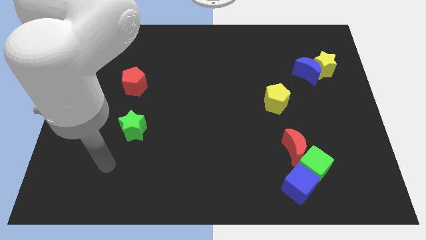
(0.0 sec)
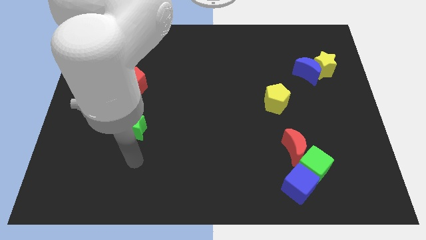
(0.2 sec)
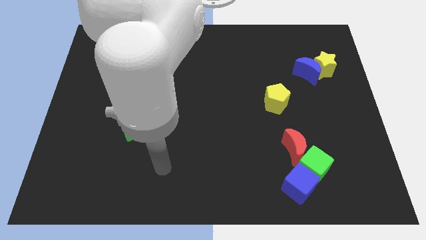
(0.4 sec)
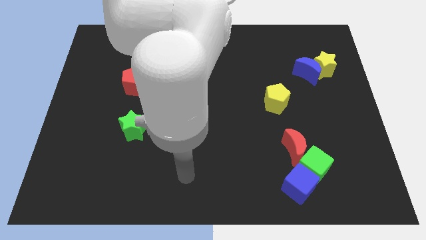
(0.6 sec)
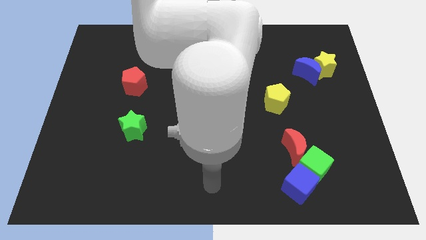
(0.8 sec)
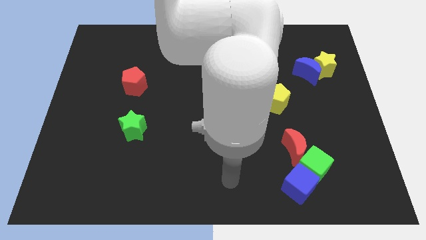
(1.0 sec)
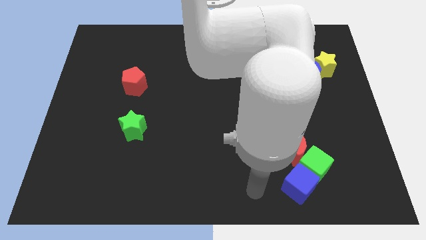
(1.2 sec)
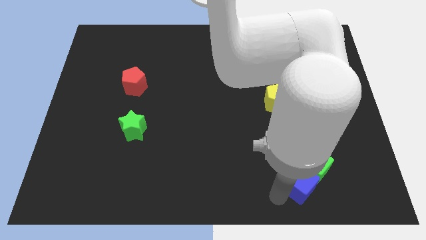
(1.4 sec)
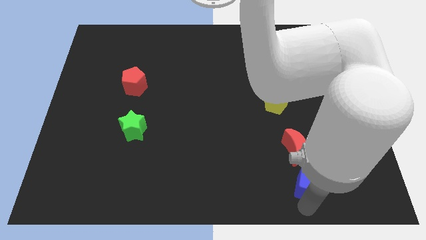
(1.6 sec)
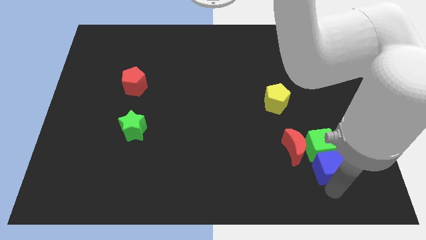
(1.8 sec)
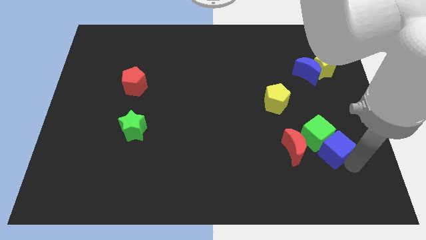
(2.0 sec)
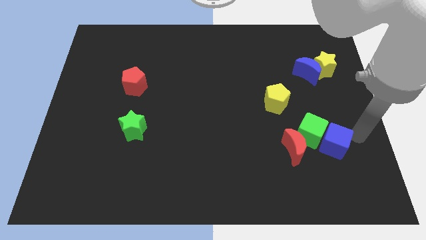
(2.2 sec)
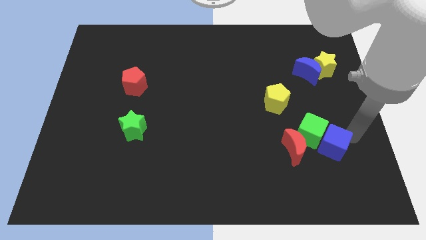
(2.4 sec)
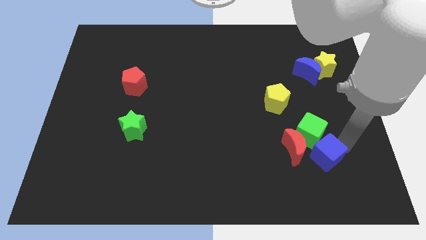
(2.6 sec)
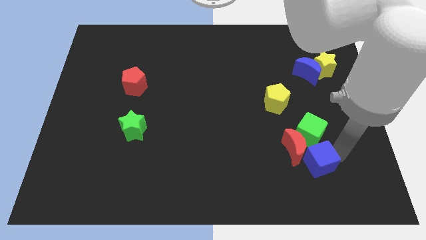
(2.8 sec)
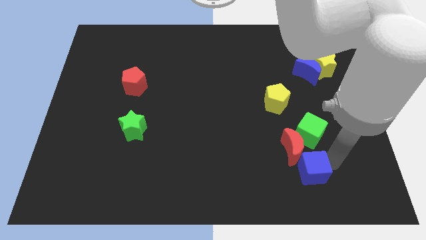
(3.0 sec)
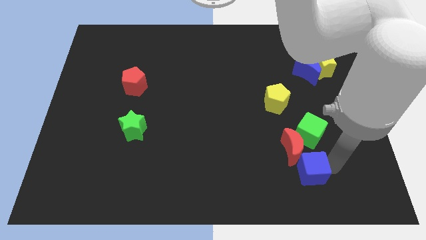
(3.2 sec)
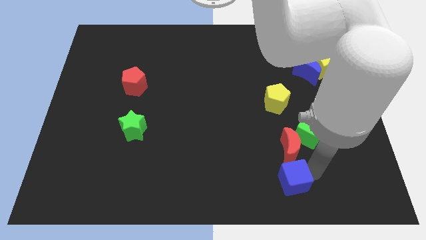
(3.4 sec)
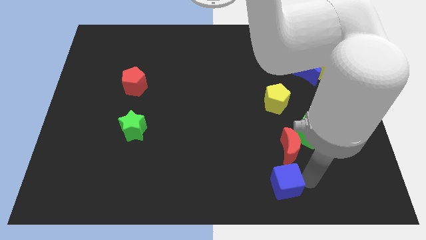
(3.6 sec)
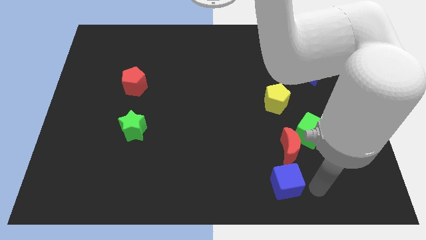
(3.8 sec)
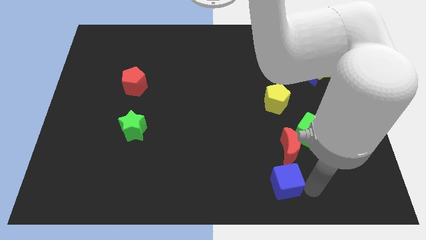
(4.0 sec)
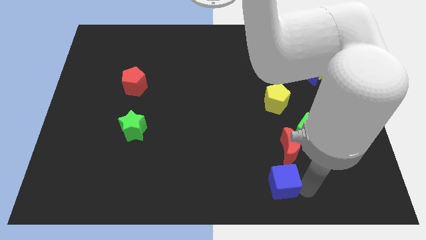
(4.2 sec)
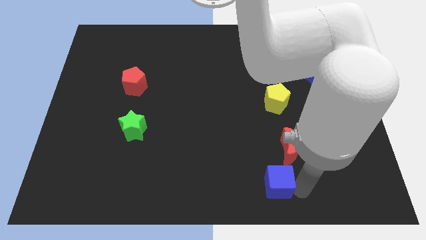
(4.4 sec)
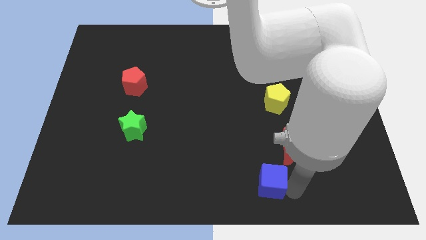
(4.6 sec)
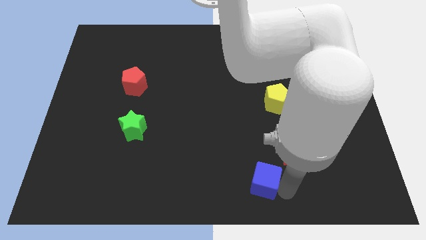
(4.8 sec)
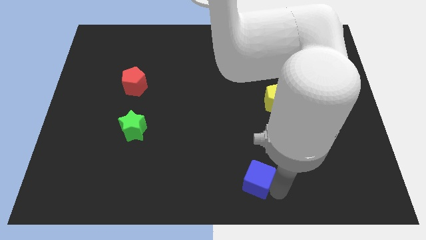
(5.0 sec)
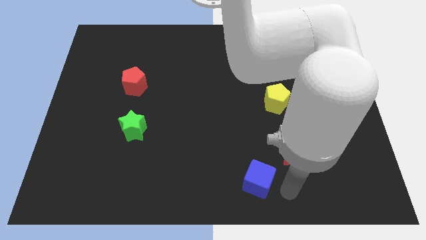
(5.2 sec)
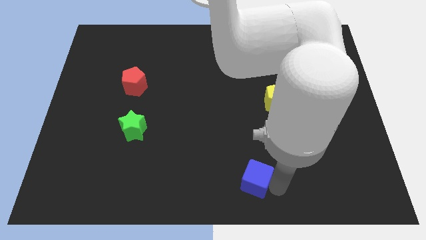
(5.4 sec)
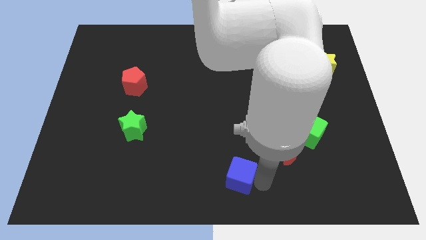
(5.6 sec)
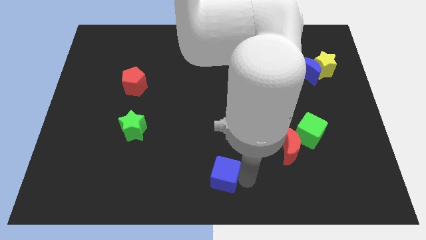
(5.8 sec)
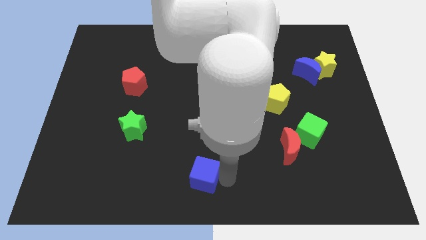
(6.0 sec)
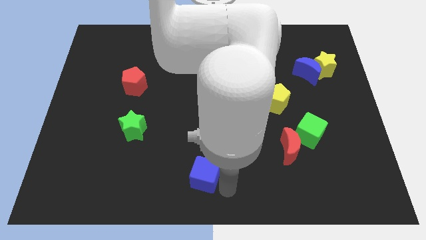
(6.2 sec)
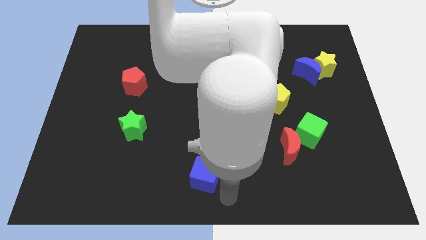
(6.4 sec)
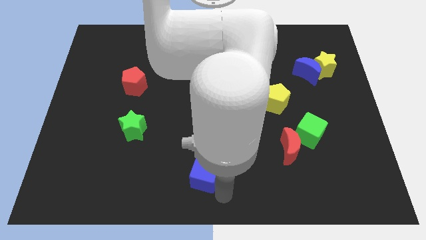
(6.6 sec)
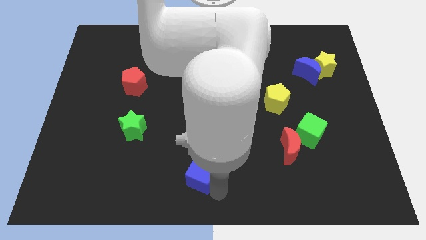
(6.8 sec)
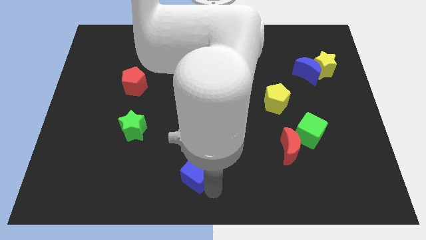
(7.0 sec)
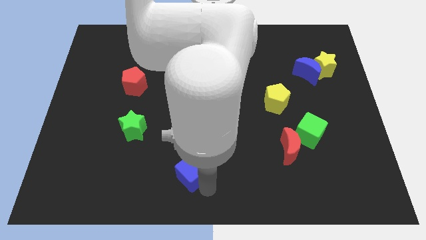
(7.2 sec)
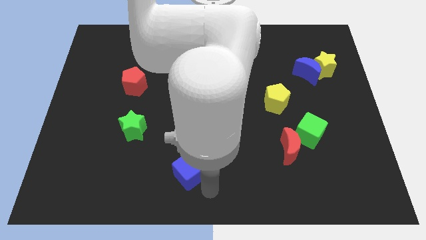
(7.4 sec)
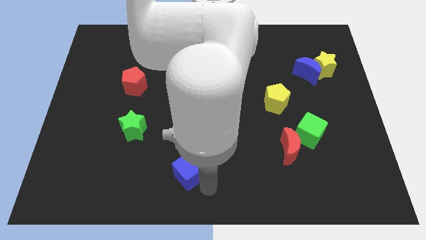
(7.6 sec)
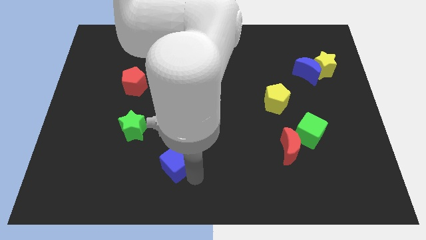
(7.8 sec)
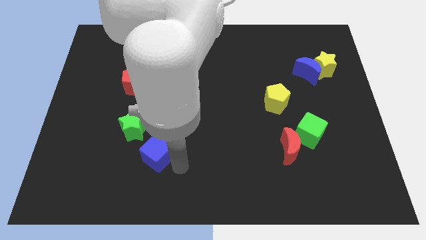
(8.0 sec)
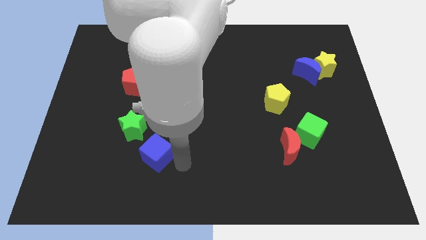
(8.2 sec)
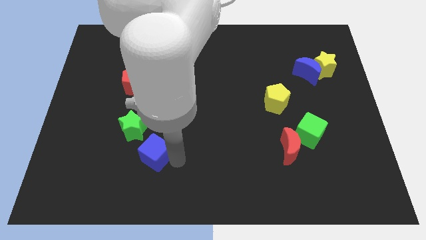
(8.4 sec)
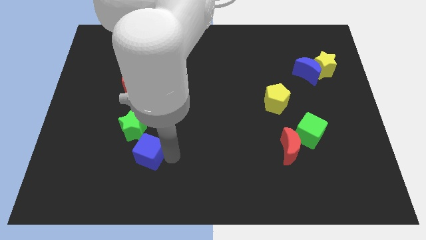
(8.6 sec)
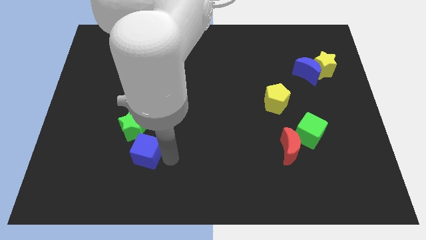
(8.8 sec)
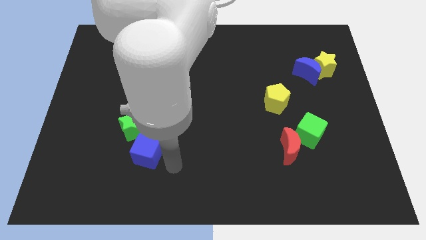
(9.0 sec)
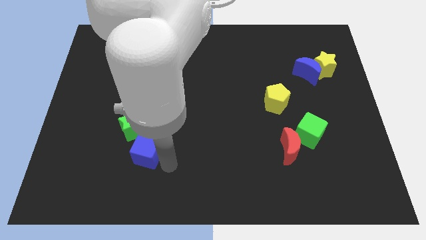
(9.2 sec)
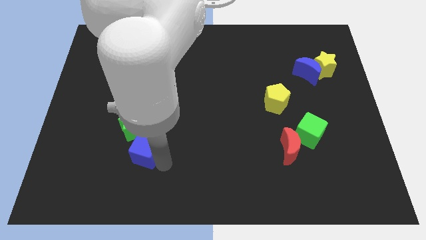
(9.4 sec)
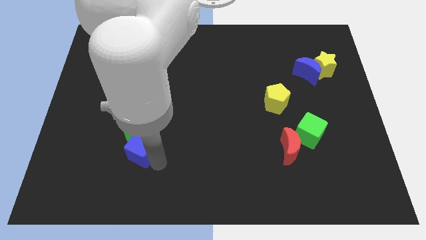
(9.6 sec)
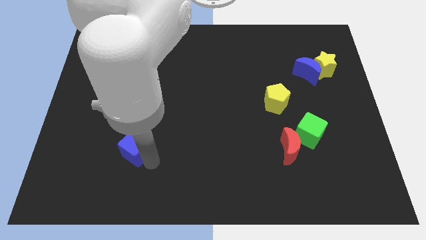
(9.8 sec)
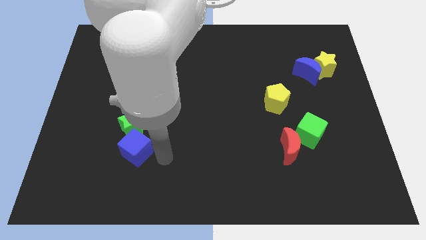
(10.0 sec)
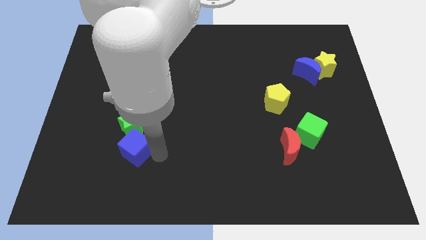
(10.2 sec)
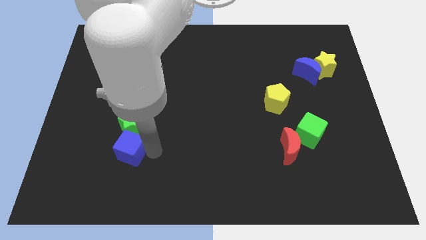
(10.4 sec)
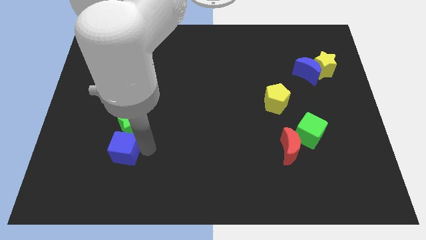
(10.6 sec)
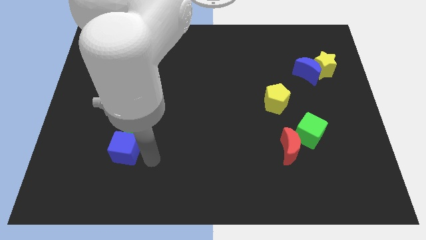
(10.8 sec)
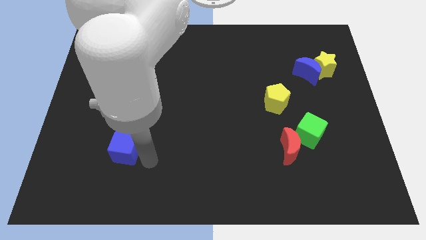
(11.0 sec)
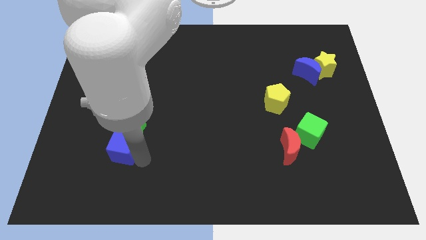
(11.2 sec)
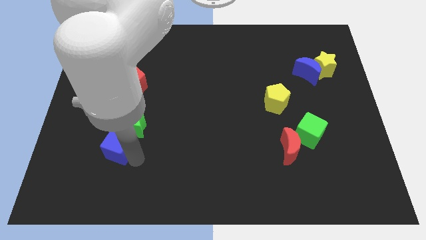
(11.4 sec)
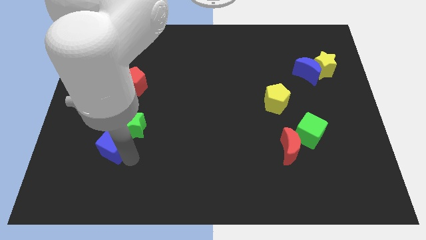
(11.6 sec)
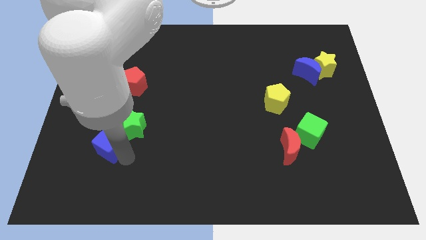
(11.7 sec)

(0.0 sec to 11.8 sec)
push the blue cube to the left of the green star

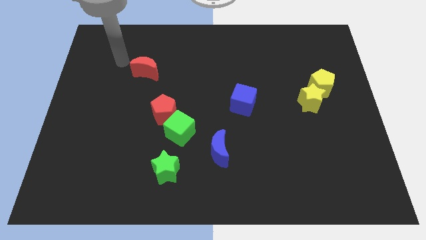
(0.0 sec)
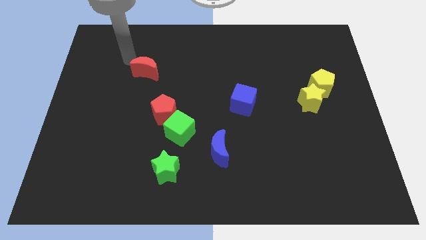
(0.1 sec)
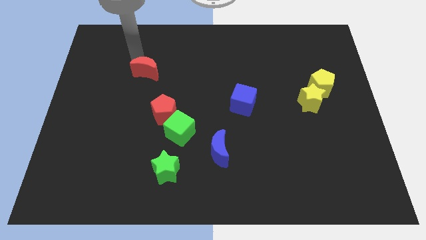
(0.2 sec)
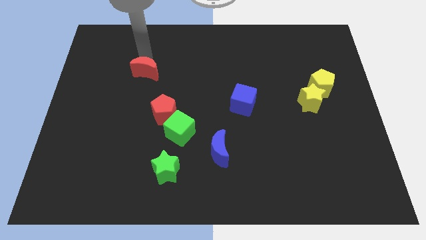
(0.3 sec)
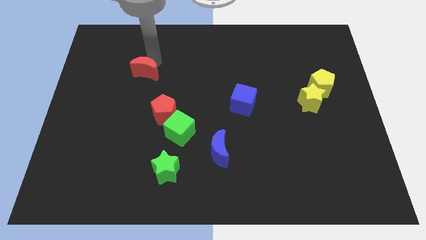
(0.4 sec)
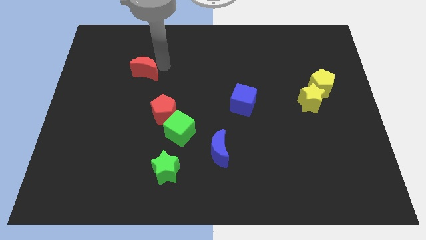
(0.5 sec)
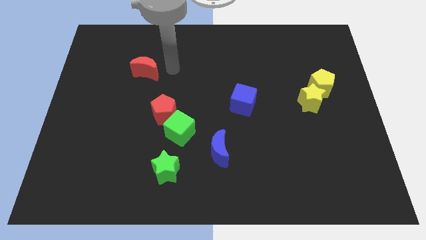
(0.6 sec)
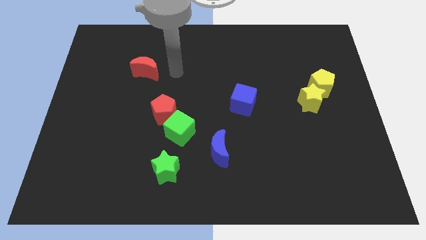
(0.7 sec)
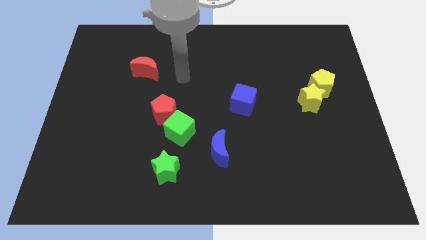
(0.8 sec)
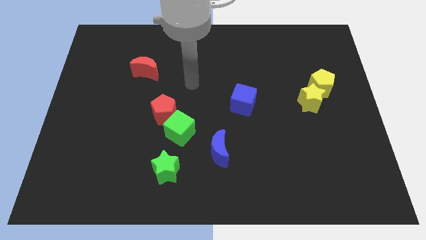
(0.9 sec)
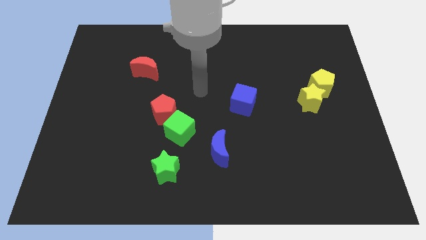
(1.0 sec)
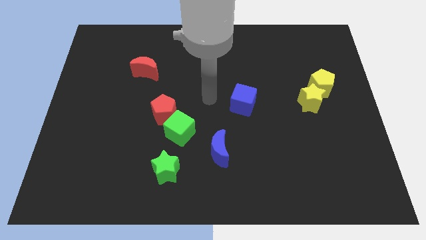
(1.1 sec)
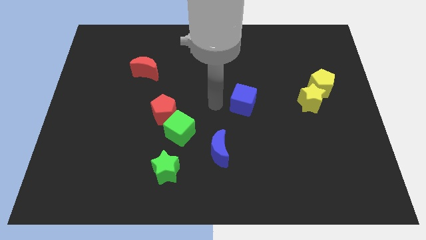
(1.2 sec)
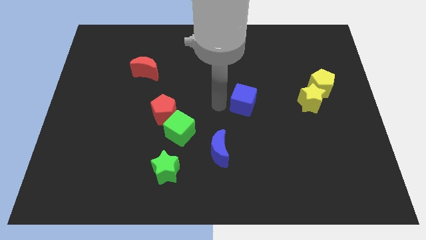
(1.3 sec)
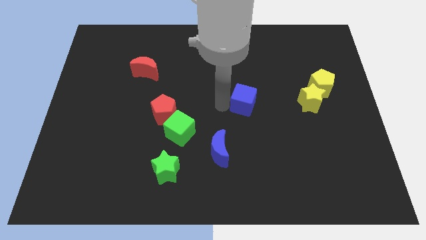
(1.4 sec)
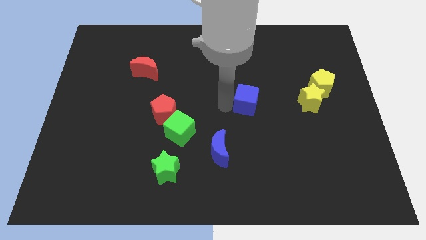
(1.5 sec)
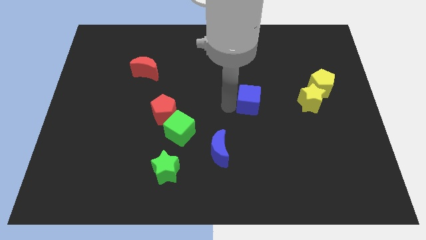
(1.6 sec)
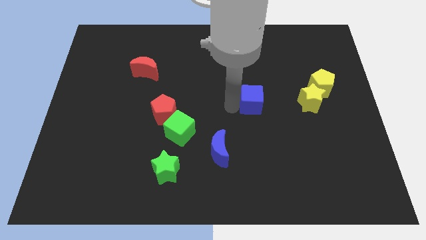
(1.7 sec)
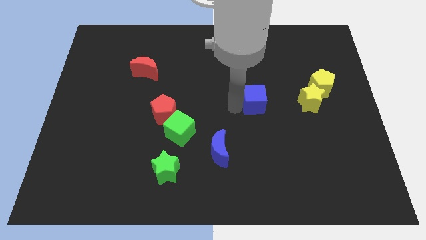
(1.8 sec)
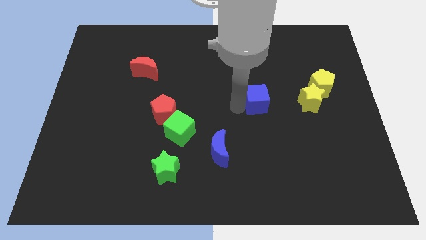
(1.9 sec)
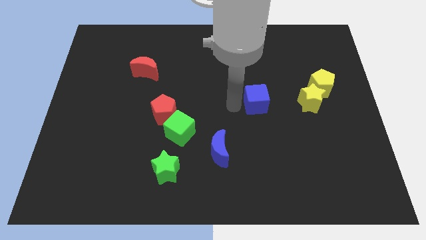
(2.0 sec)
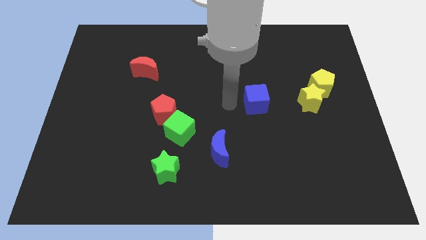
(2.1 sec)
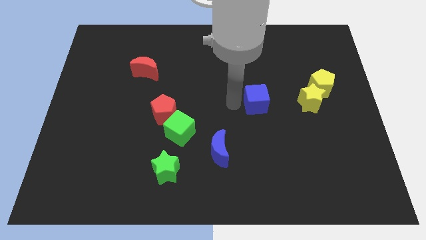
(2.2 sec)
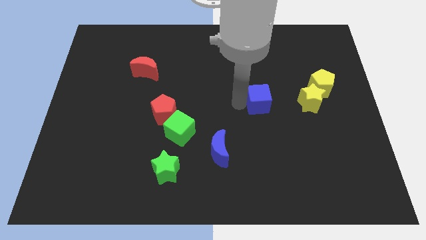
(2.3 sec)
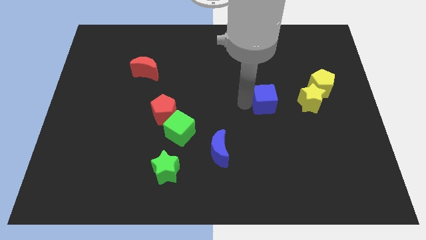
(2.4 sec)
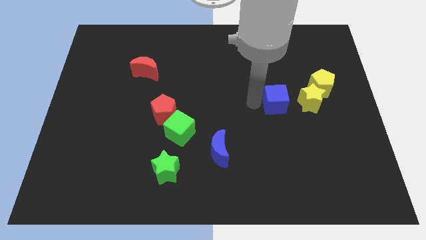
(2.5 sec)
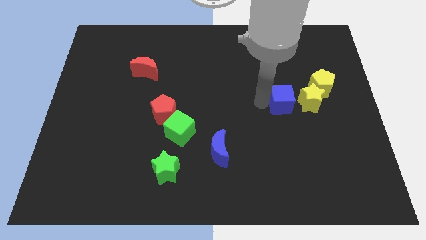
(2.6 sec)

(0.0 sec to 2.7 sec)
put the blue cube diagonally down and to the left of the yellow pentagon
